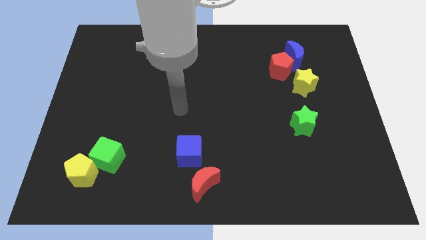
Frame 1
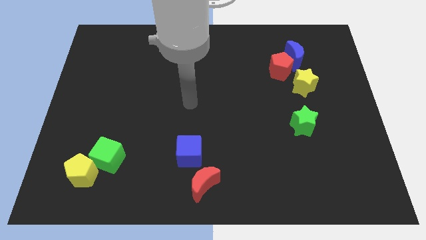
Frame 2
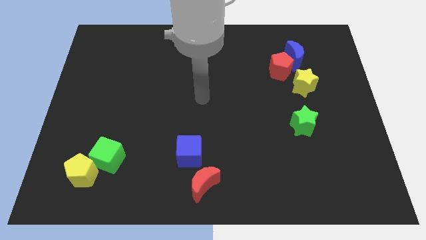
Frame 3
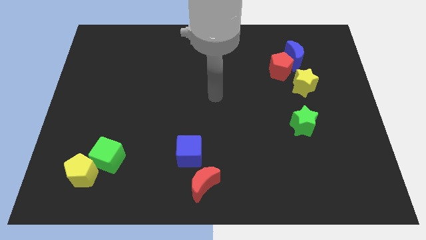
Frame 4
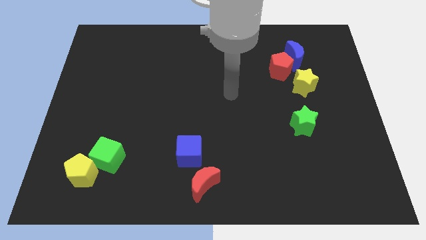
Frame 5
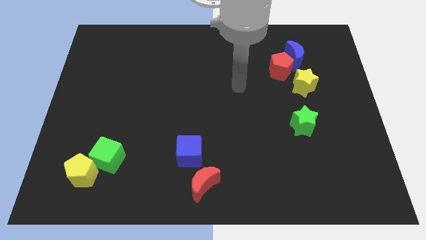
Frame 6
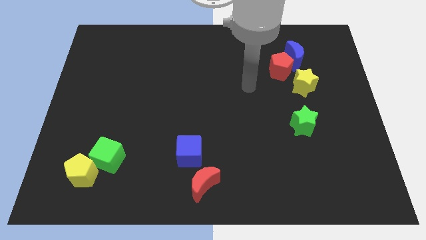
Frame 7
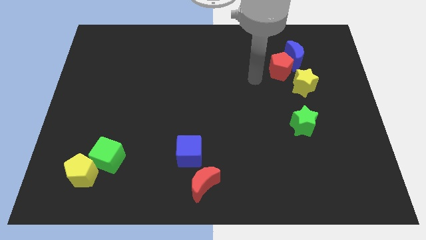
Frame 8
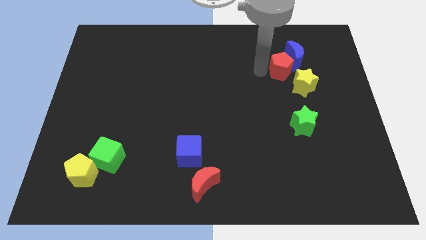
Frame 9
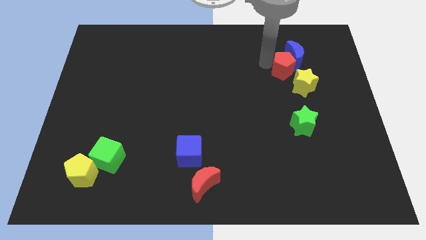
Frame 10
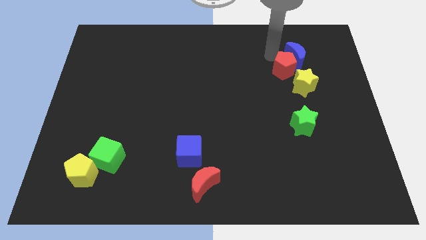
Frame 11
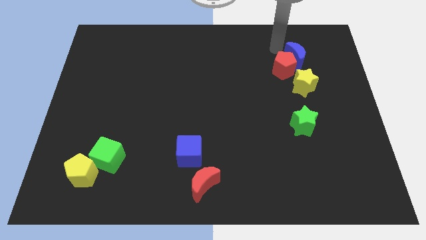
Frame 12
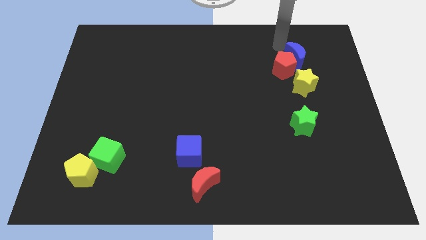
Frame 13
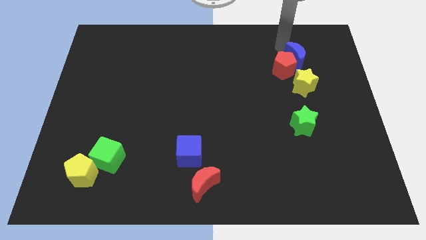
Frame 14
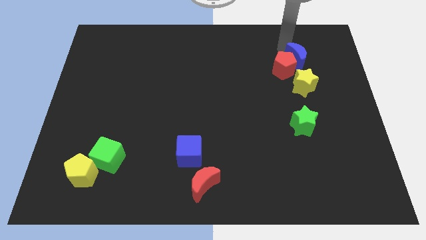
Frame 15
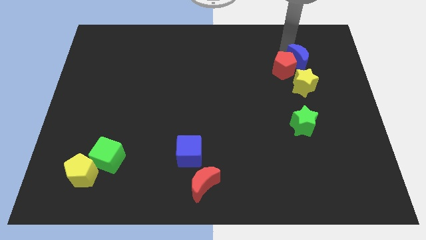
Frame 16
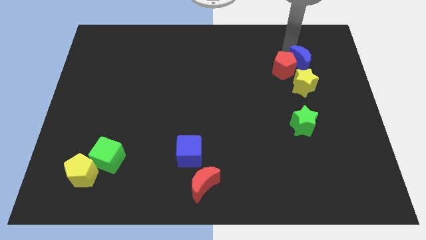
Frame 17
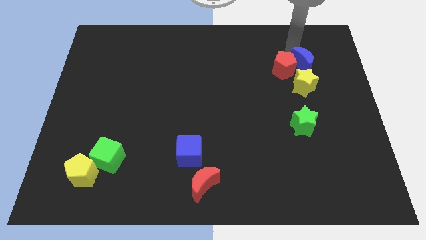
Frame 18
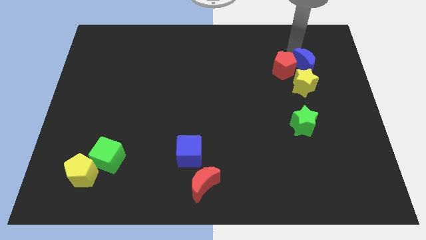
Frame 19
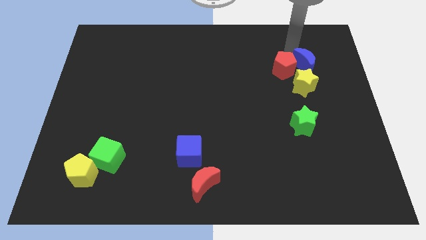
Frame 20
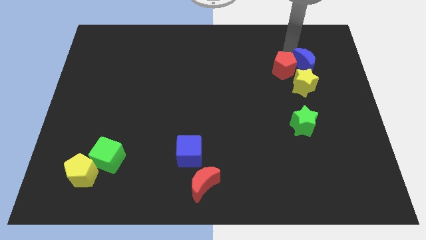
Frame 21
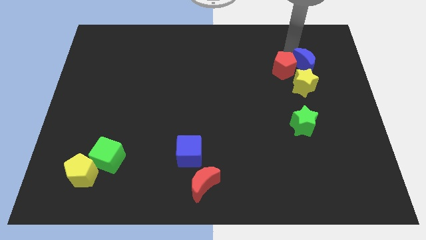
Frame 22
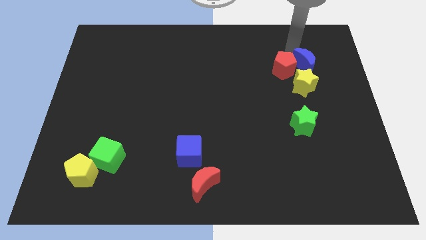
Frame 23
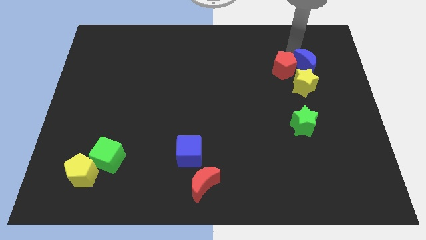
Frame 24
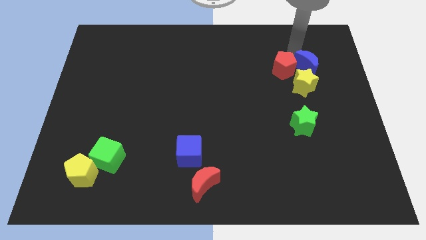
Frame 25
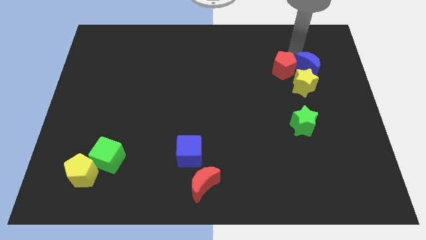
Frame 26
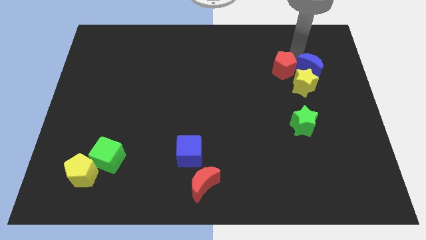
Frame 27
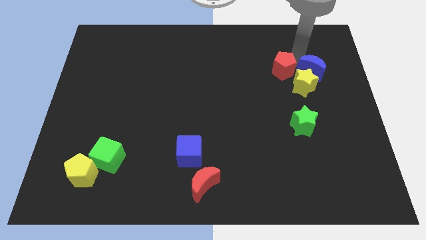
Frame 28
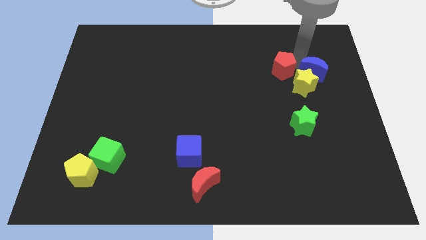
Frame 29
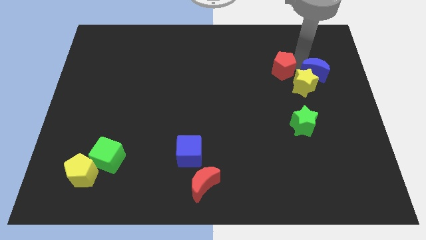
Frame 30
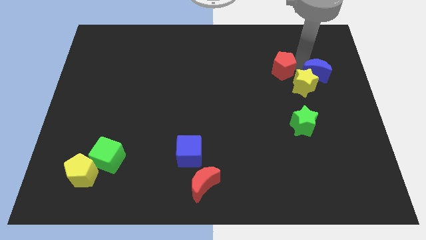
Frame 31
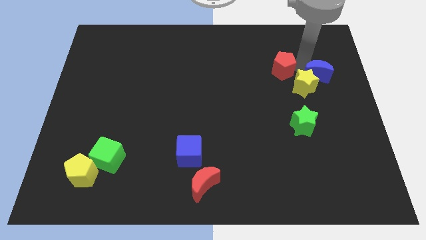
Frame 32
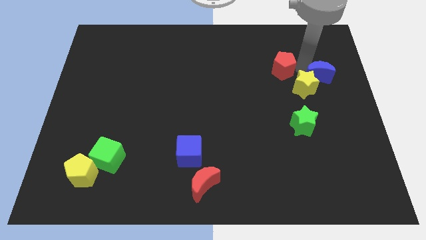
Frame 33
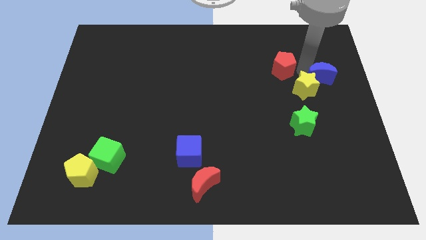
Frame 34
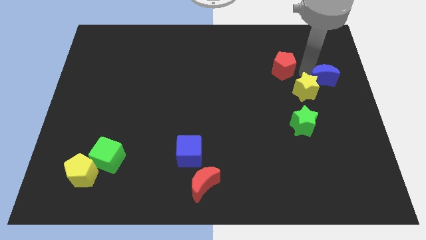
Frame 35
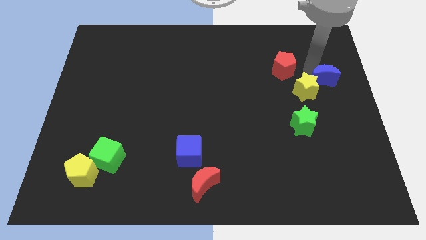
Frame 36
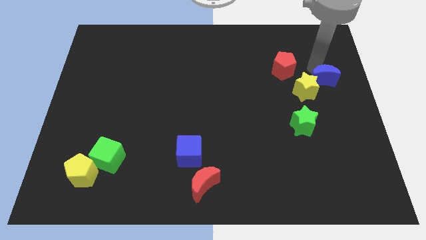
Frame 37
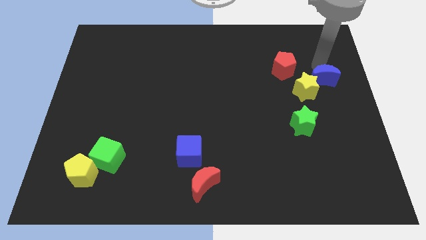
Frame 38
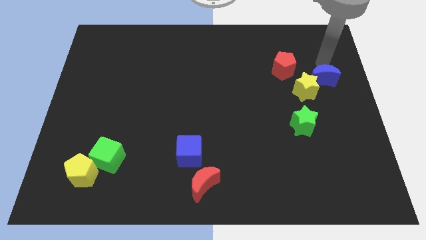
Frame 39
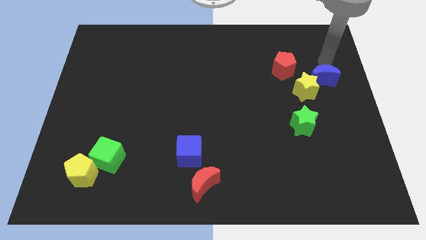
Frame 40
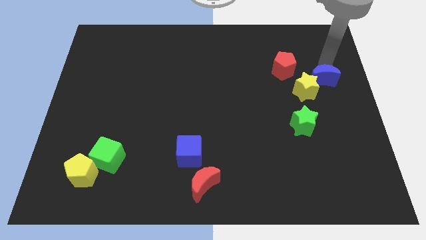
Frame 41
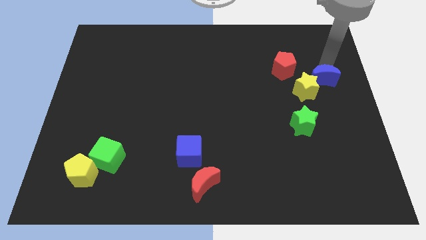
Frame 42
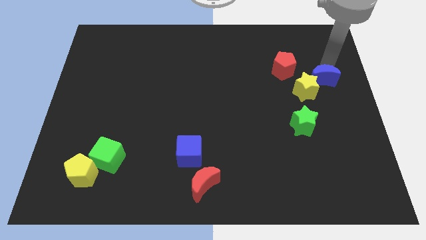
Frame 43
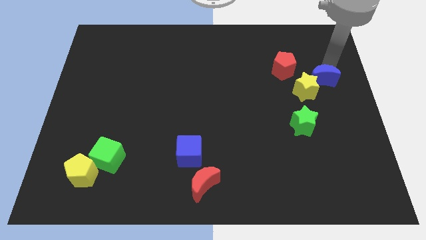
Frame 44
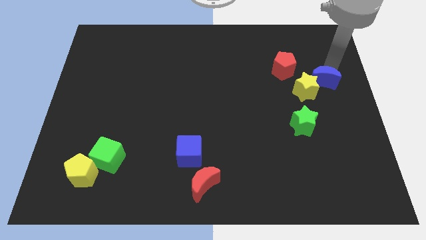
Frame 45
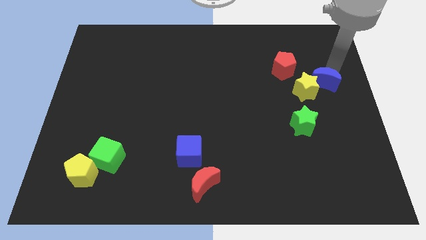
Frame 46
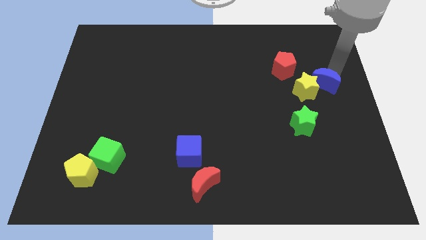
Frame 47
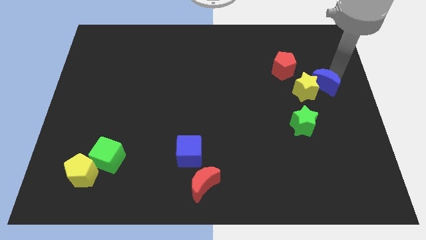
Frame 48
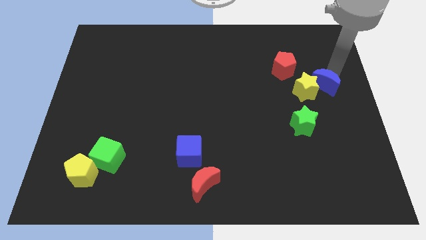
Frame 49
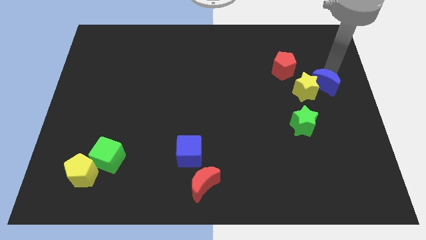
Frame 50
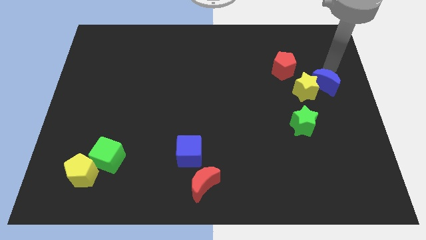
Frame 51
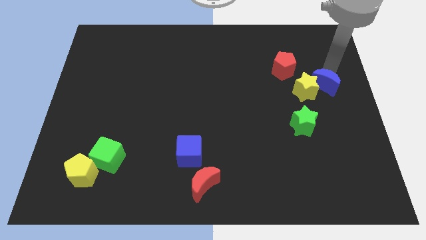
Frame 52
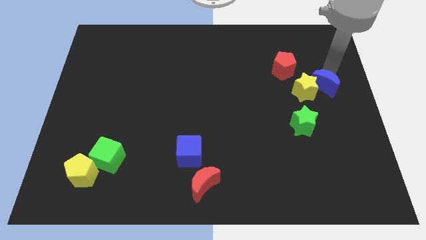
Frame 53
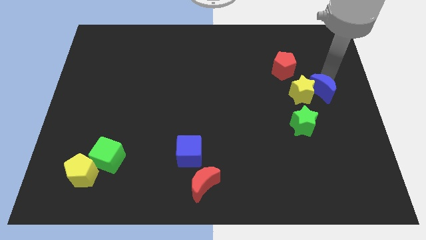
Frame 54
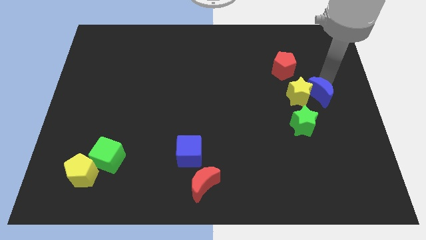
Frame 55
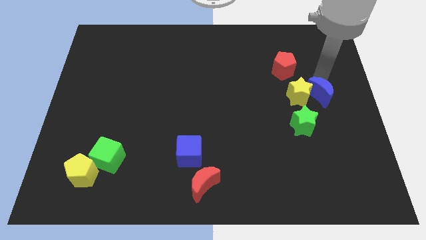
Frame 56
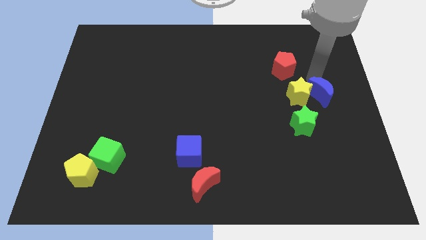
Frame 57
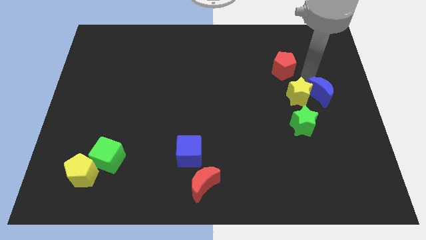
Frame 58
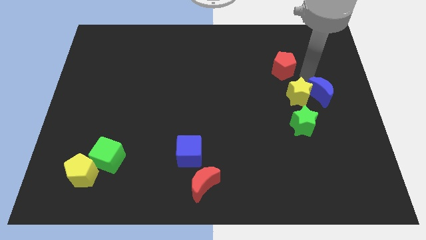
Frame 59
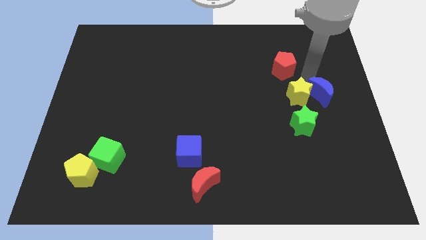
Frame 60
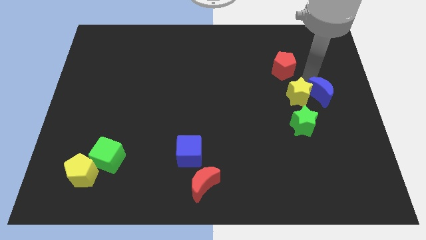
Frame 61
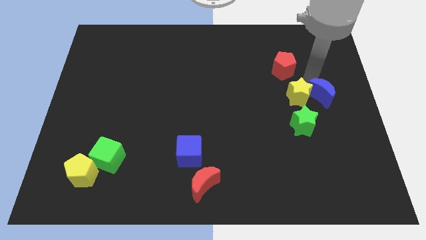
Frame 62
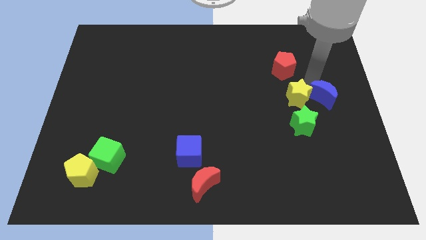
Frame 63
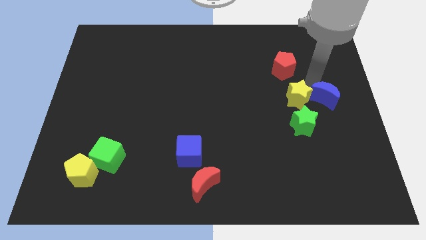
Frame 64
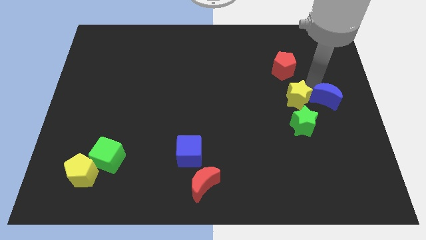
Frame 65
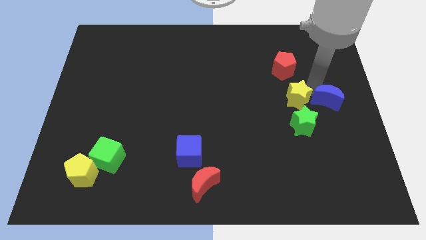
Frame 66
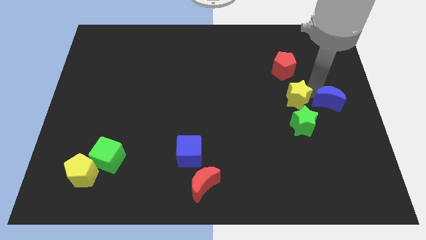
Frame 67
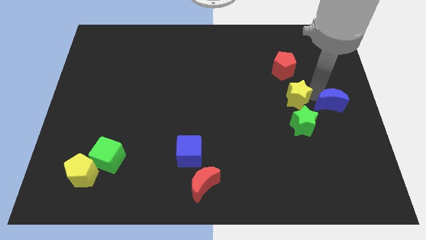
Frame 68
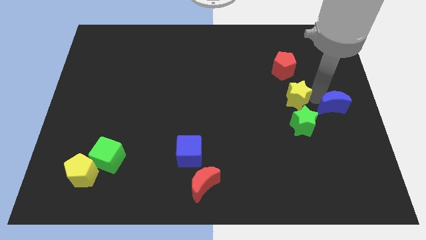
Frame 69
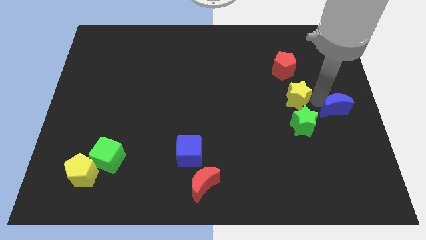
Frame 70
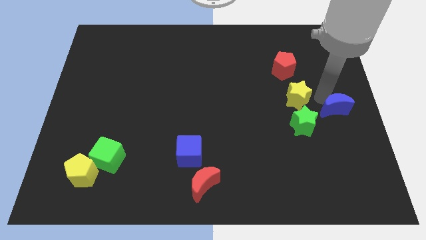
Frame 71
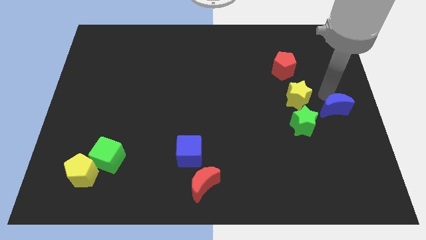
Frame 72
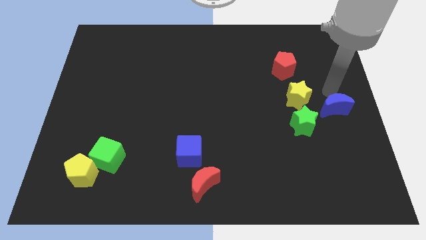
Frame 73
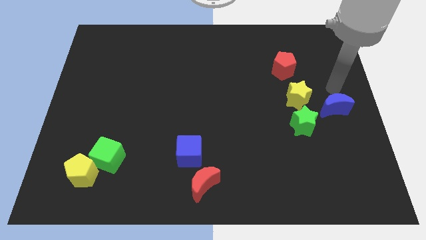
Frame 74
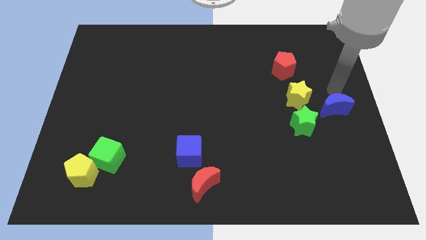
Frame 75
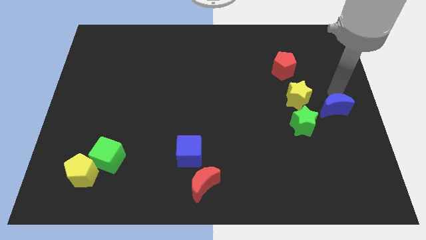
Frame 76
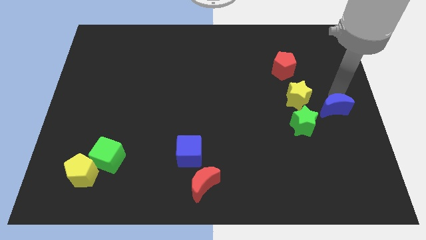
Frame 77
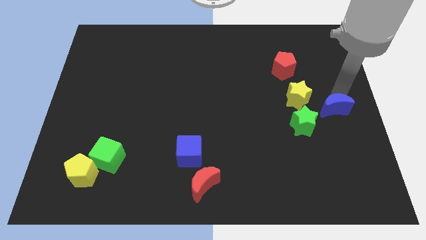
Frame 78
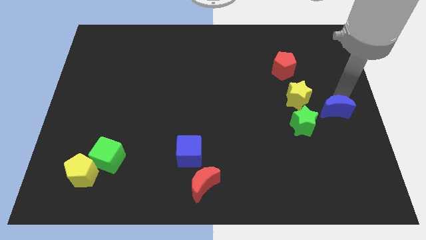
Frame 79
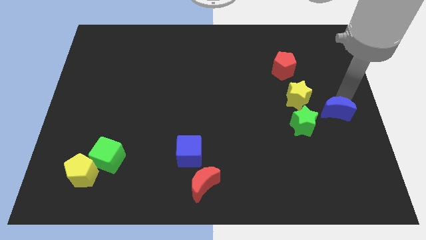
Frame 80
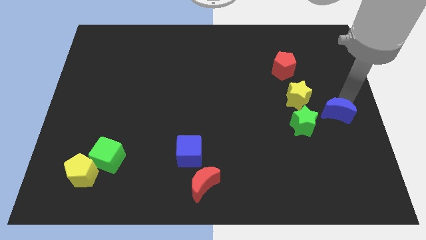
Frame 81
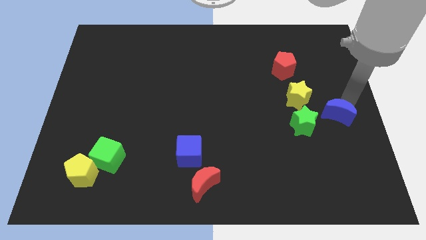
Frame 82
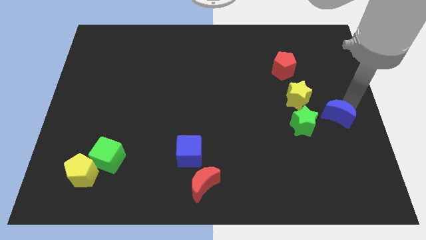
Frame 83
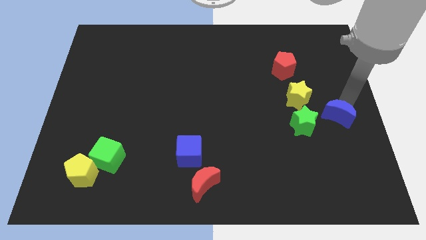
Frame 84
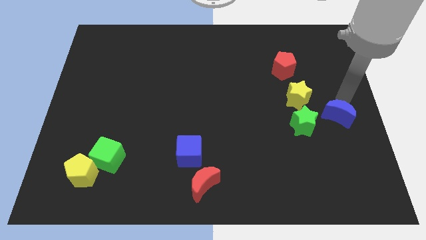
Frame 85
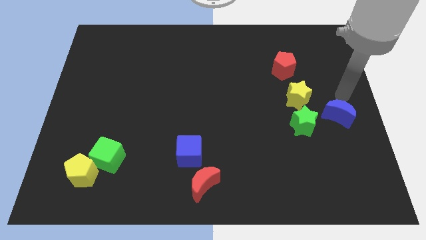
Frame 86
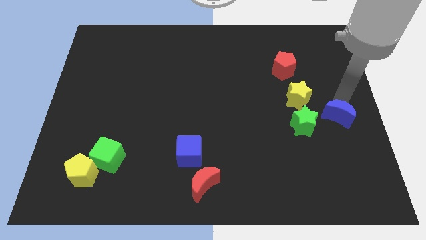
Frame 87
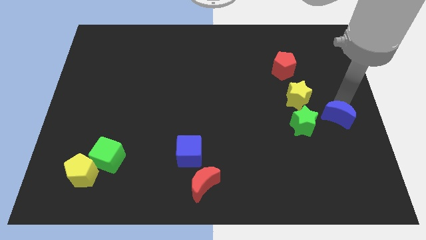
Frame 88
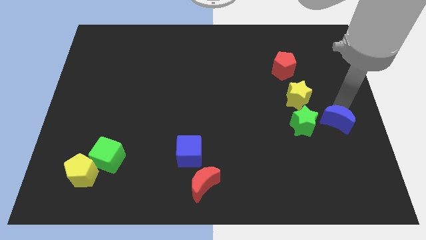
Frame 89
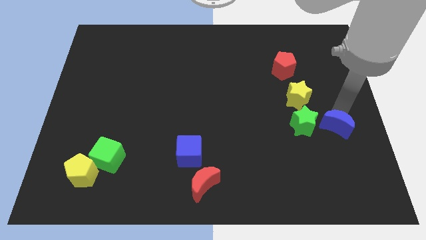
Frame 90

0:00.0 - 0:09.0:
slide the blue moon downwards
